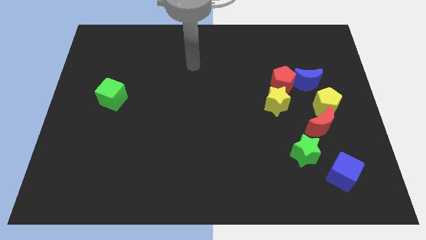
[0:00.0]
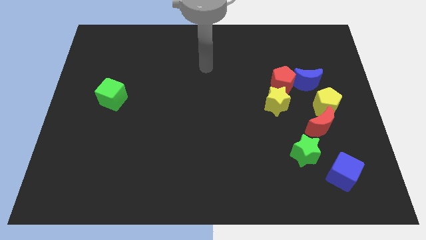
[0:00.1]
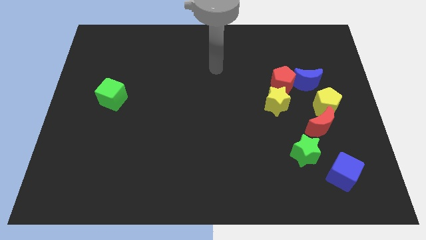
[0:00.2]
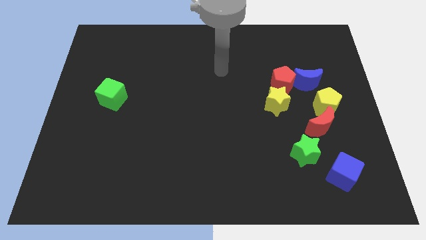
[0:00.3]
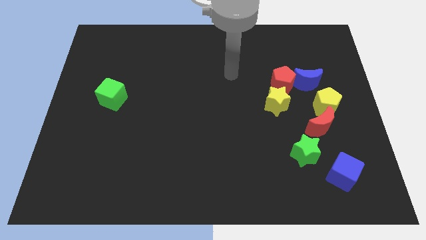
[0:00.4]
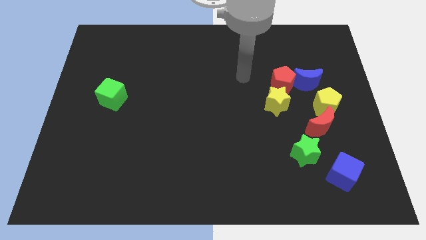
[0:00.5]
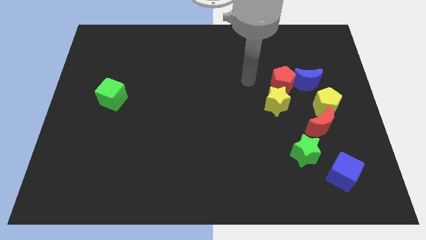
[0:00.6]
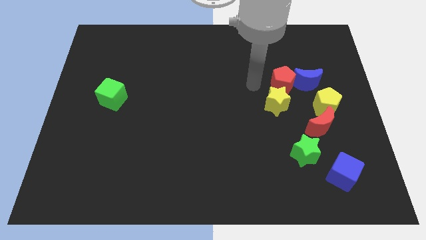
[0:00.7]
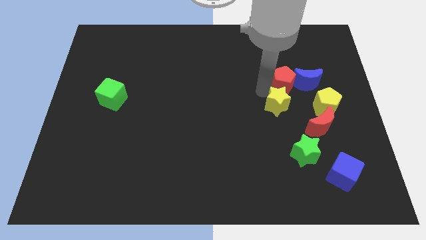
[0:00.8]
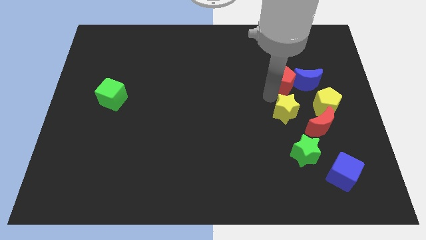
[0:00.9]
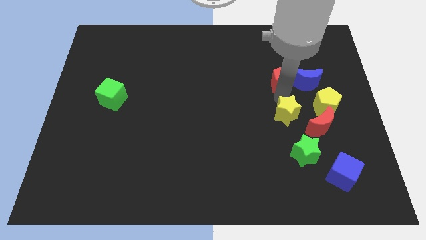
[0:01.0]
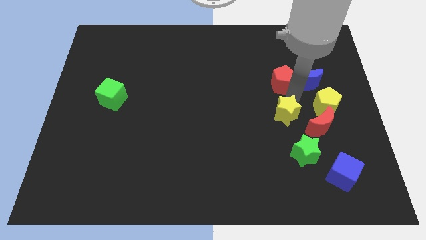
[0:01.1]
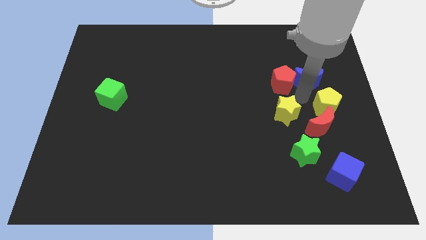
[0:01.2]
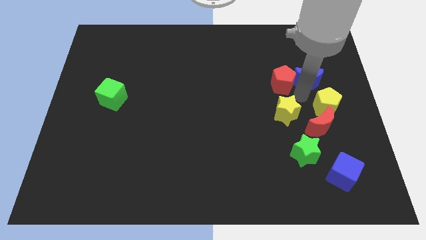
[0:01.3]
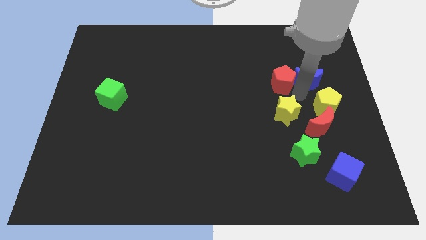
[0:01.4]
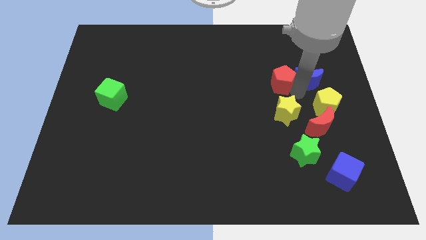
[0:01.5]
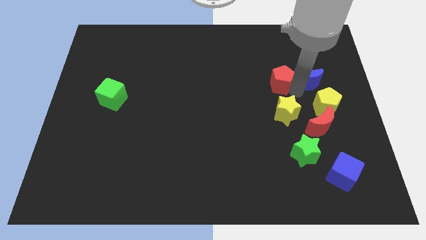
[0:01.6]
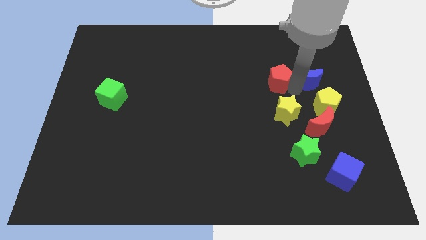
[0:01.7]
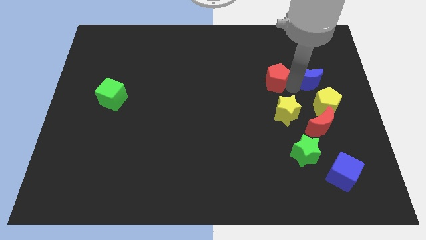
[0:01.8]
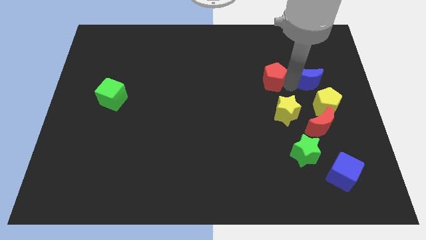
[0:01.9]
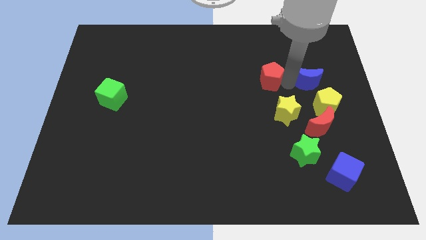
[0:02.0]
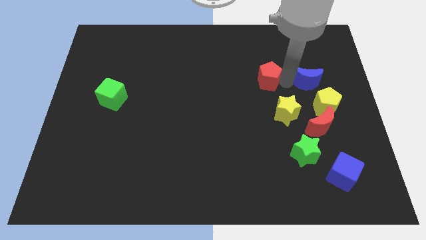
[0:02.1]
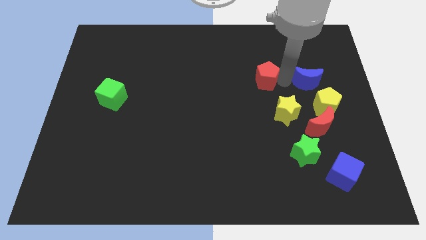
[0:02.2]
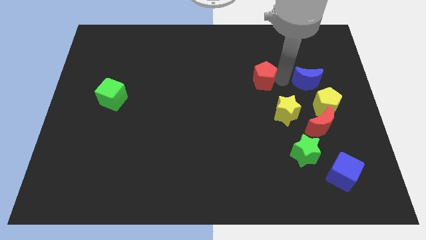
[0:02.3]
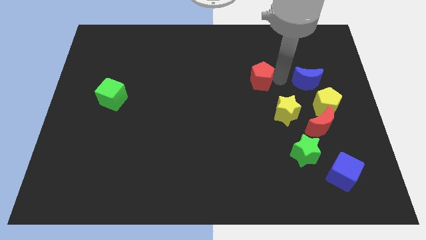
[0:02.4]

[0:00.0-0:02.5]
pull the red pentagon apart from the blue moon and yellow star

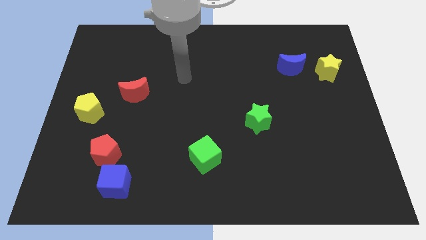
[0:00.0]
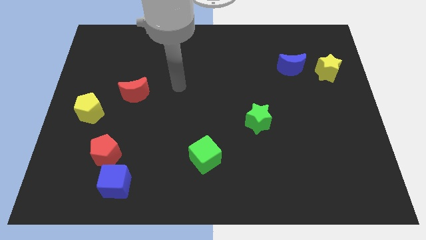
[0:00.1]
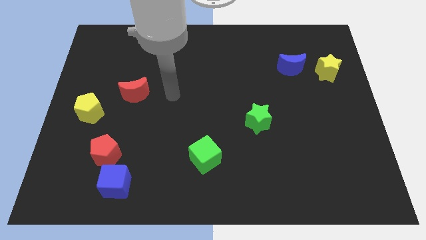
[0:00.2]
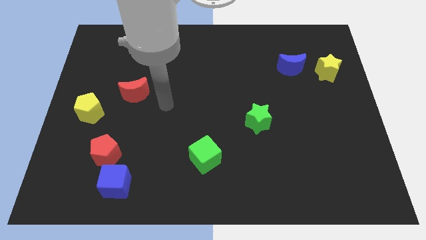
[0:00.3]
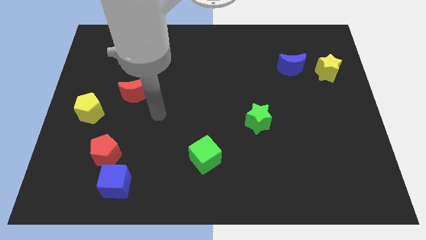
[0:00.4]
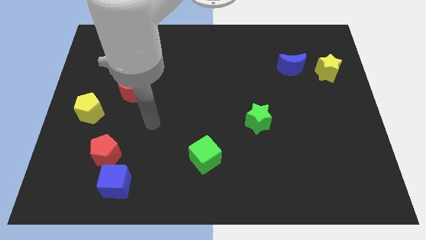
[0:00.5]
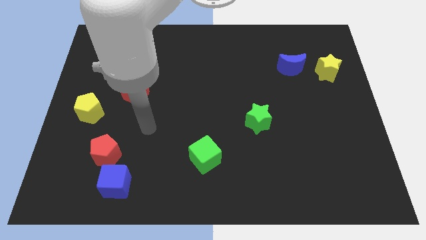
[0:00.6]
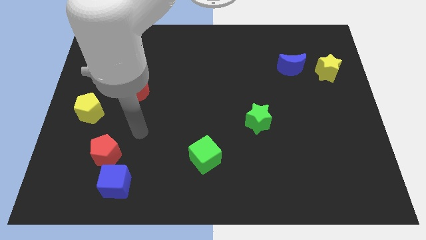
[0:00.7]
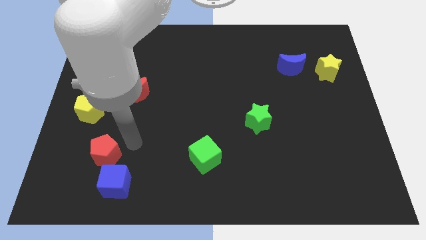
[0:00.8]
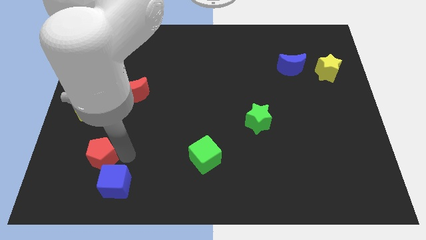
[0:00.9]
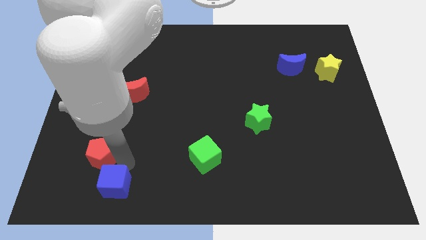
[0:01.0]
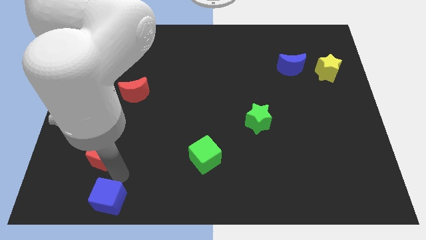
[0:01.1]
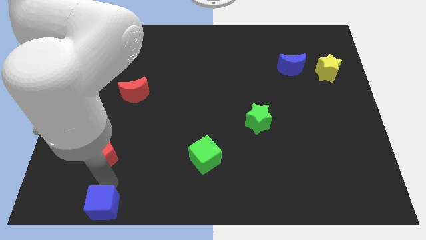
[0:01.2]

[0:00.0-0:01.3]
pull the red pentagon apart from the blue cube

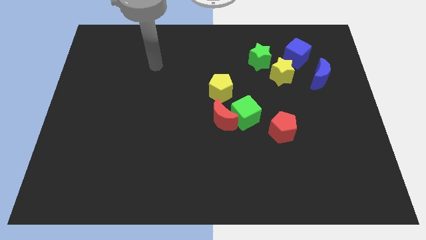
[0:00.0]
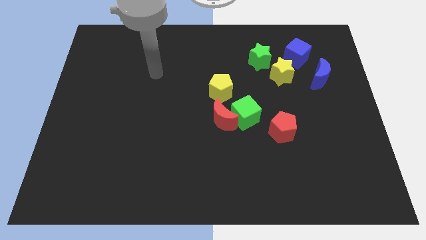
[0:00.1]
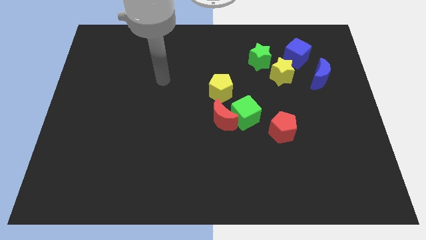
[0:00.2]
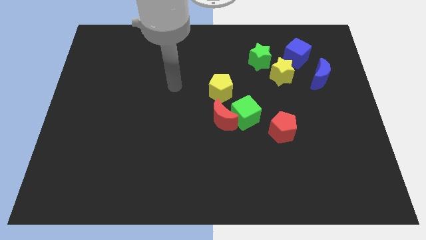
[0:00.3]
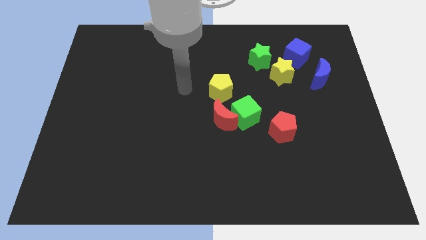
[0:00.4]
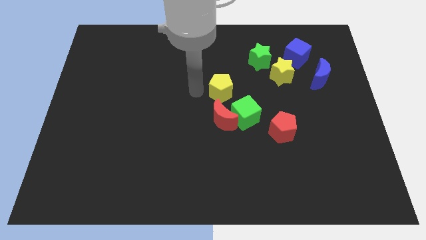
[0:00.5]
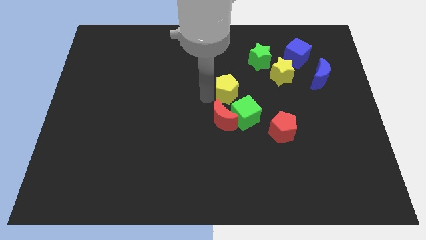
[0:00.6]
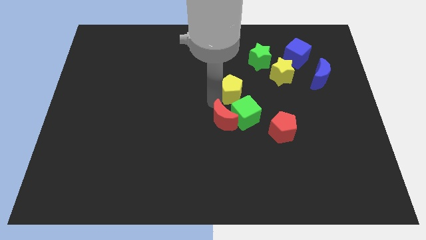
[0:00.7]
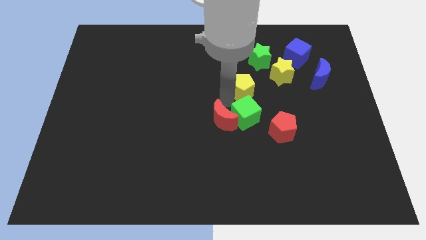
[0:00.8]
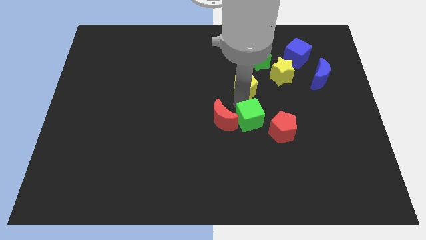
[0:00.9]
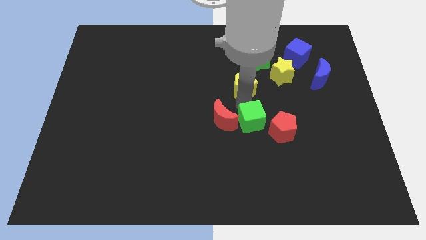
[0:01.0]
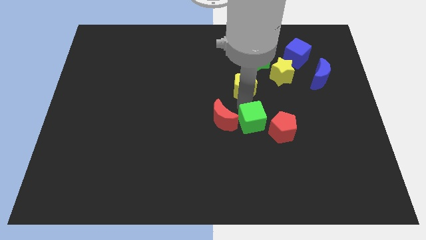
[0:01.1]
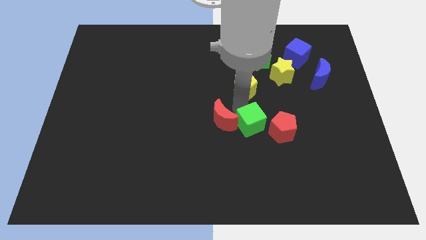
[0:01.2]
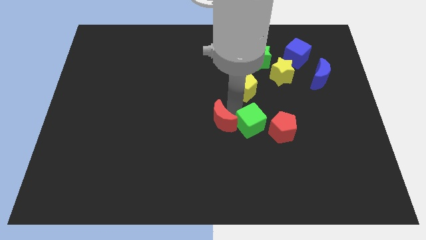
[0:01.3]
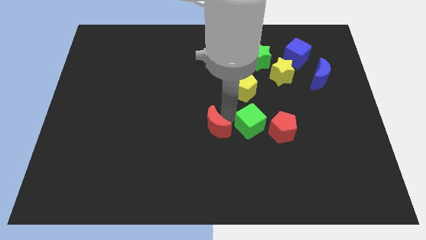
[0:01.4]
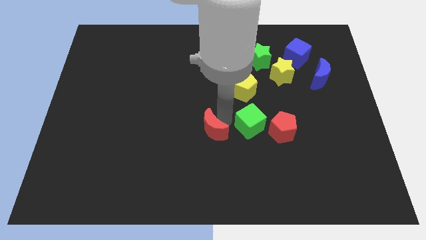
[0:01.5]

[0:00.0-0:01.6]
pull the red moon apart from the green cube and yellow pentagon

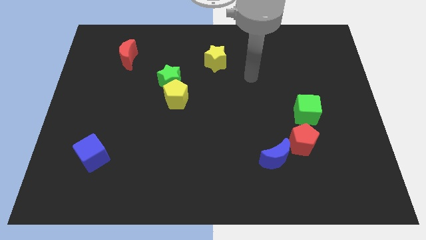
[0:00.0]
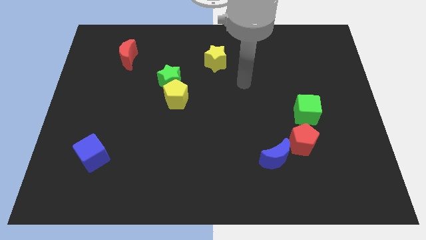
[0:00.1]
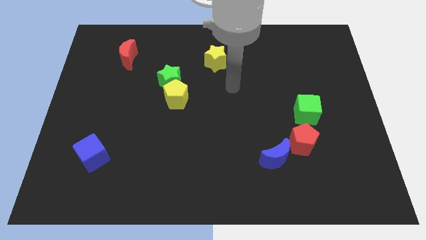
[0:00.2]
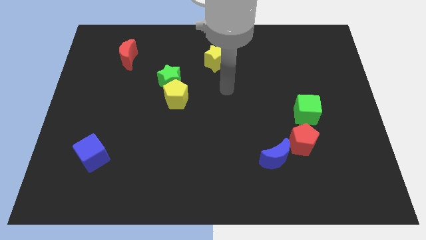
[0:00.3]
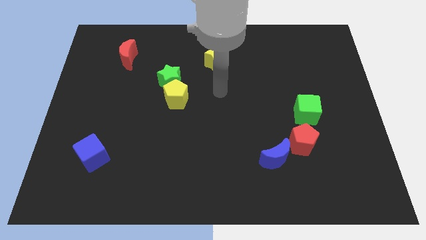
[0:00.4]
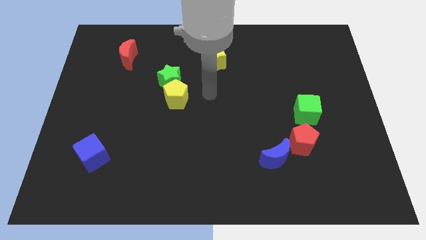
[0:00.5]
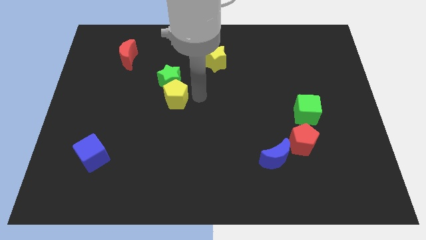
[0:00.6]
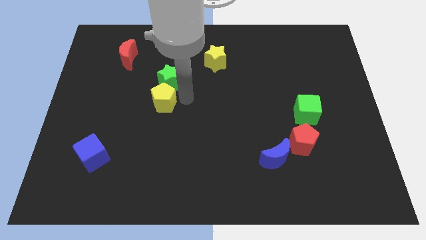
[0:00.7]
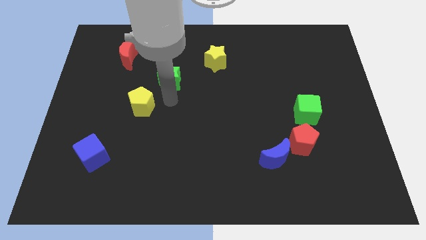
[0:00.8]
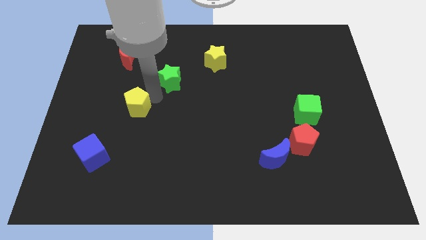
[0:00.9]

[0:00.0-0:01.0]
separate the green star from the yellow pentagon

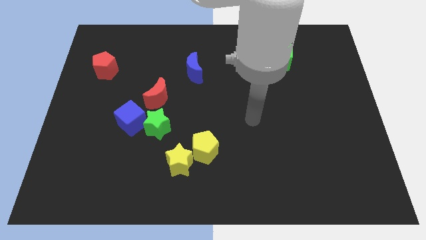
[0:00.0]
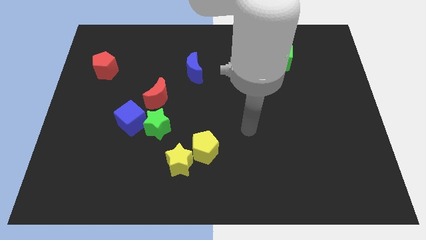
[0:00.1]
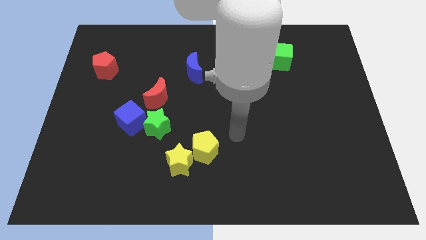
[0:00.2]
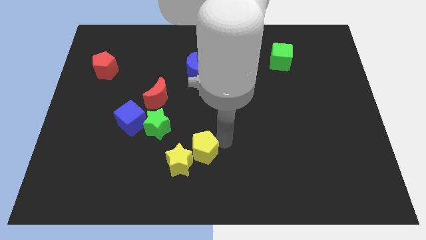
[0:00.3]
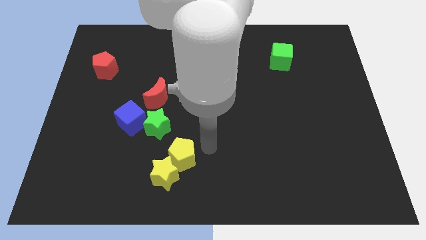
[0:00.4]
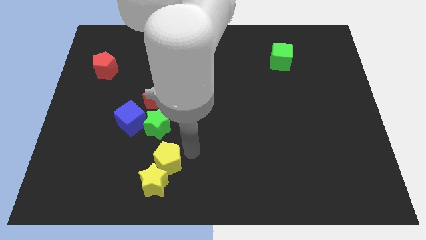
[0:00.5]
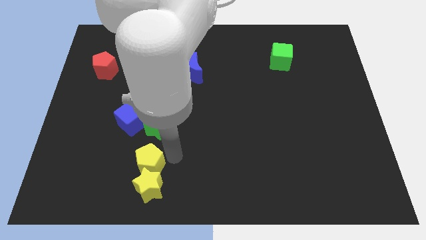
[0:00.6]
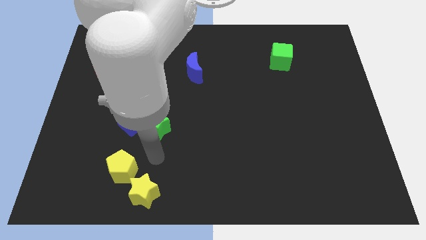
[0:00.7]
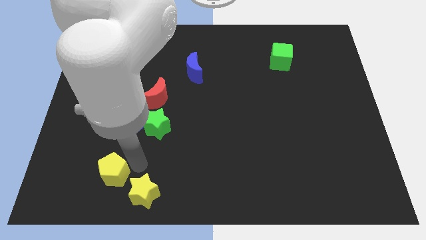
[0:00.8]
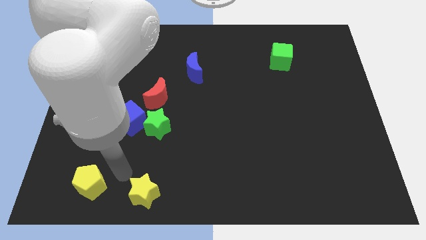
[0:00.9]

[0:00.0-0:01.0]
move the yellow star away from the yellow pentagon

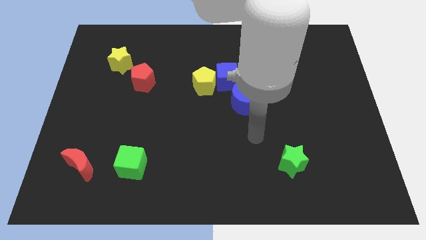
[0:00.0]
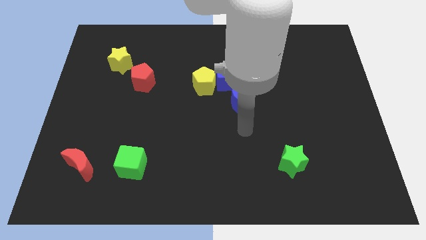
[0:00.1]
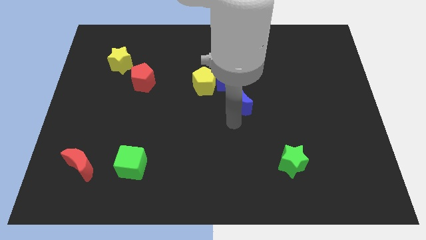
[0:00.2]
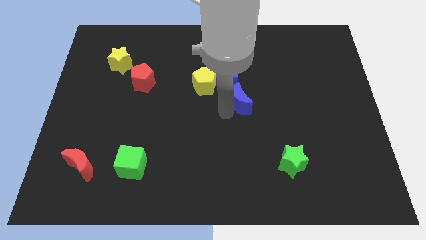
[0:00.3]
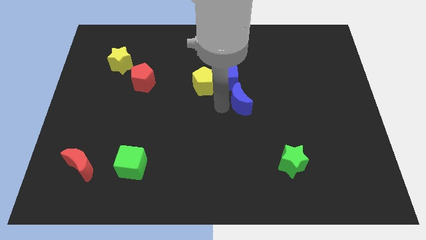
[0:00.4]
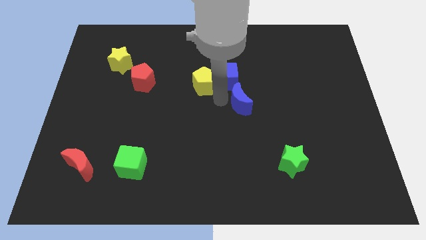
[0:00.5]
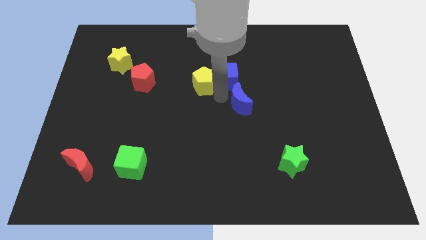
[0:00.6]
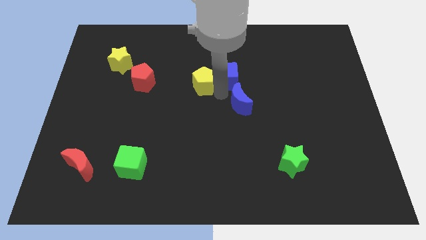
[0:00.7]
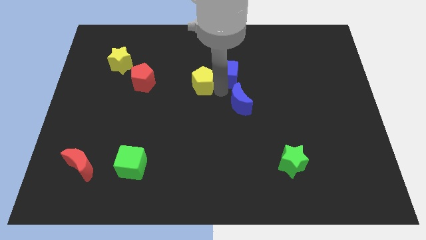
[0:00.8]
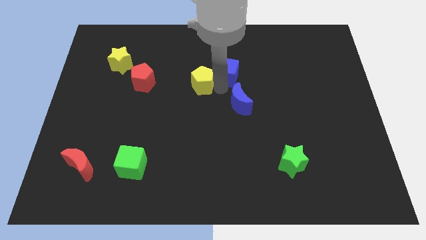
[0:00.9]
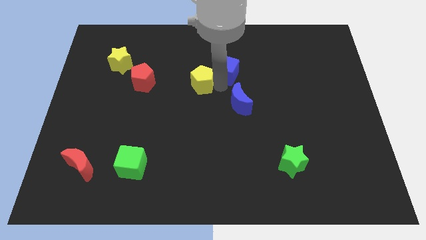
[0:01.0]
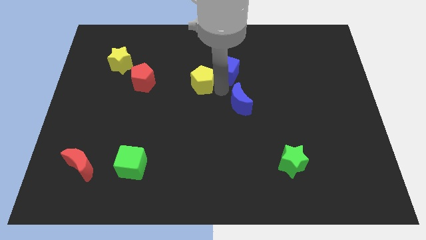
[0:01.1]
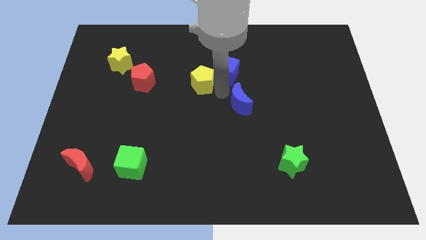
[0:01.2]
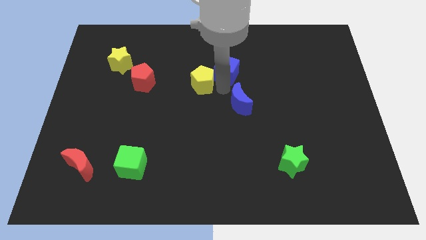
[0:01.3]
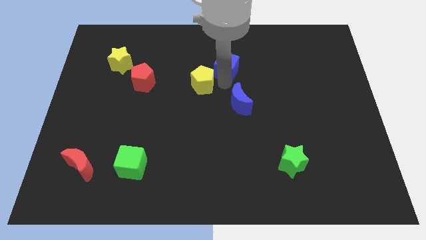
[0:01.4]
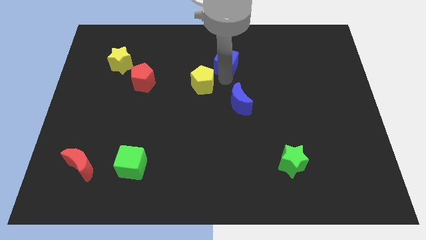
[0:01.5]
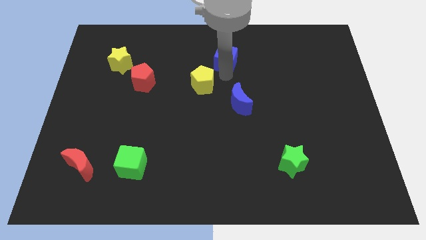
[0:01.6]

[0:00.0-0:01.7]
pull the blue cube apart from the yellow pentagon and blue moon

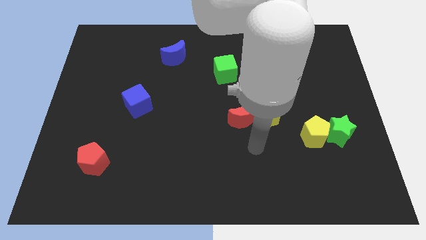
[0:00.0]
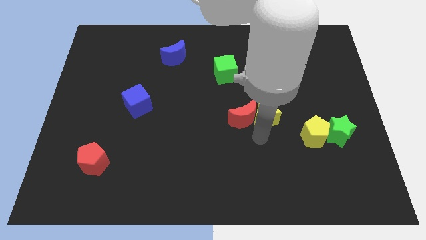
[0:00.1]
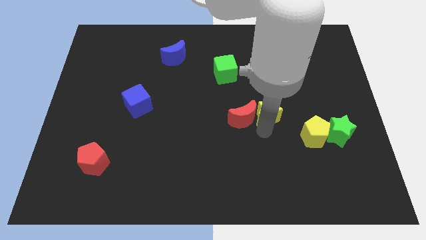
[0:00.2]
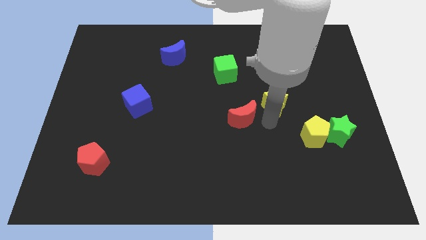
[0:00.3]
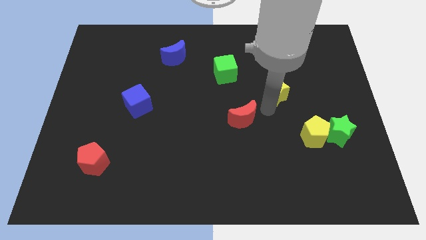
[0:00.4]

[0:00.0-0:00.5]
pull the red moon apart from the yellow star
